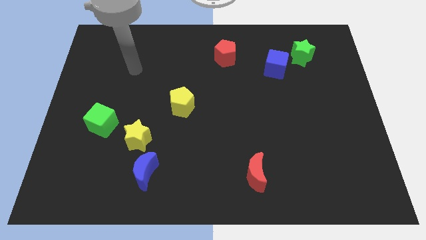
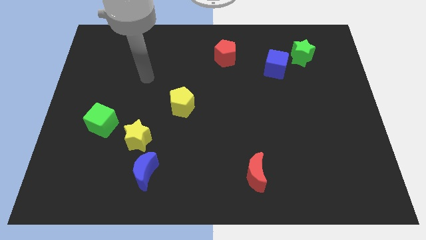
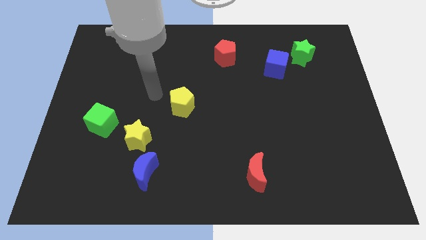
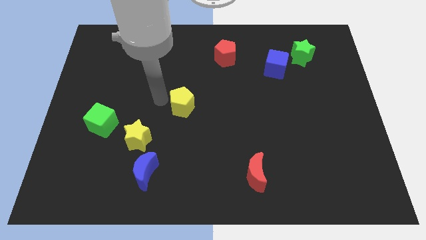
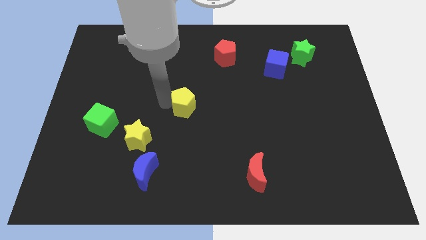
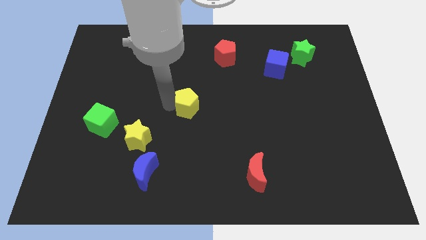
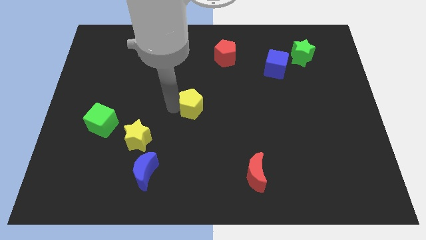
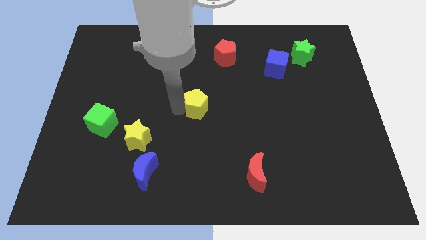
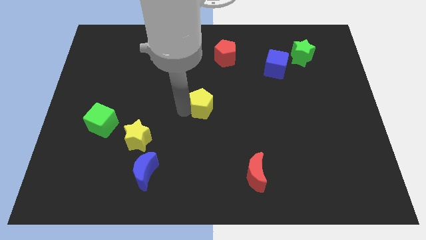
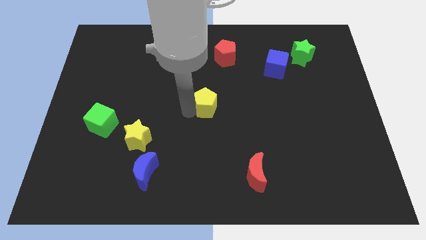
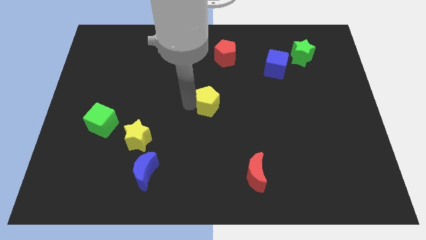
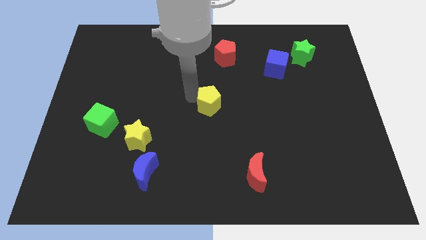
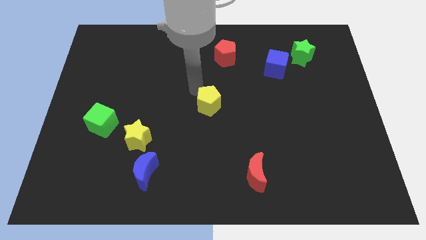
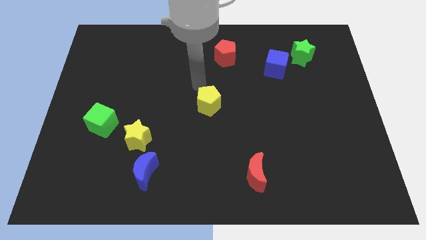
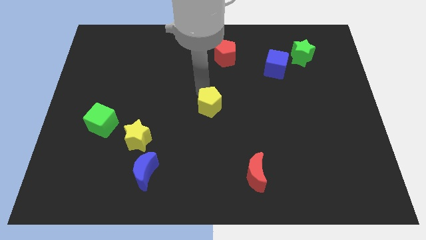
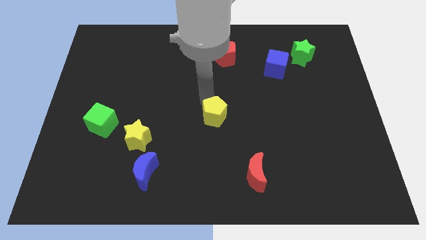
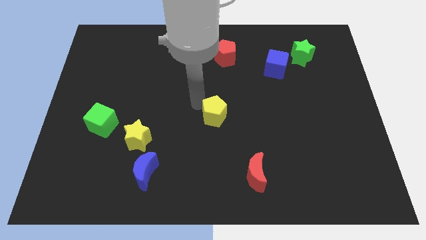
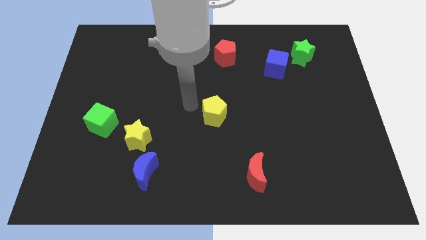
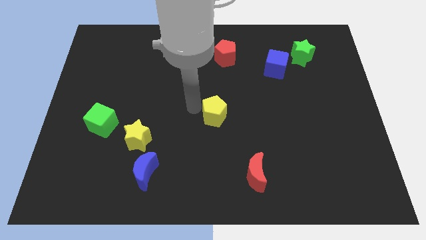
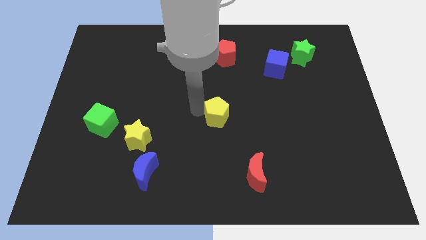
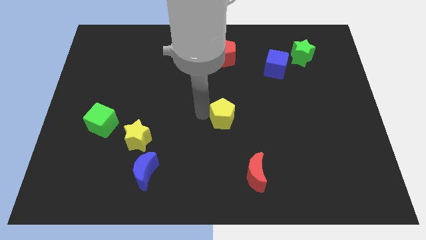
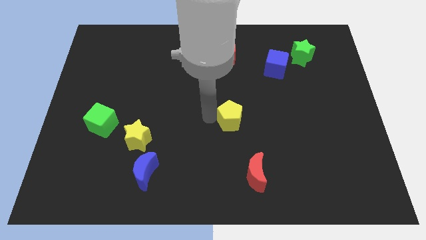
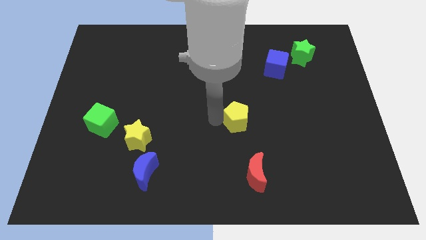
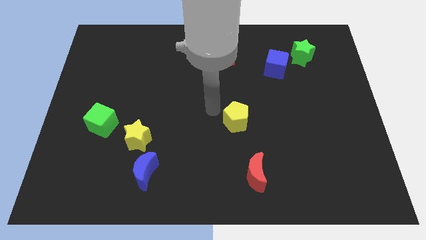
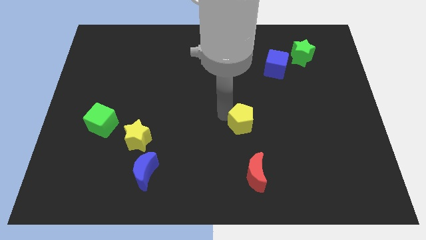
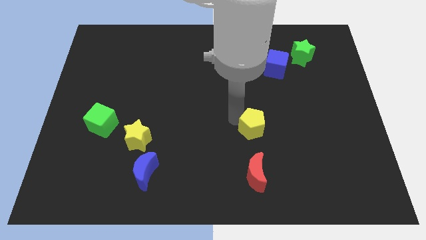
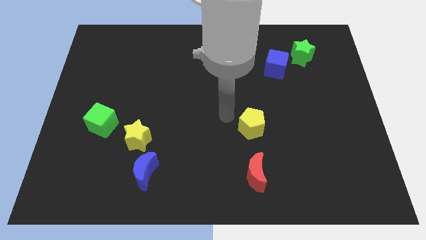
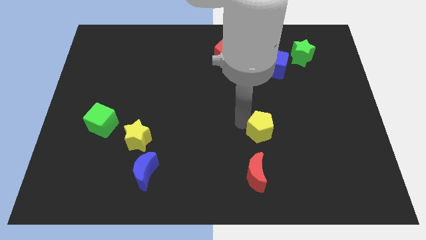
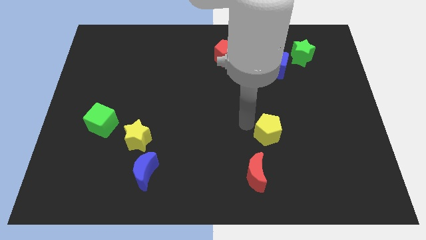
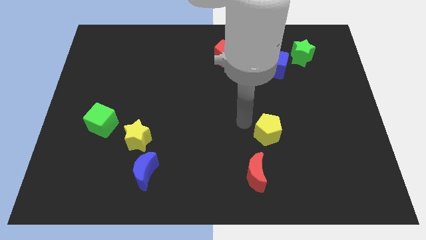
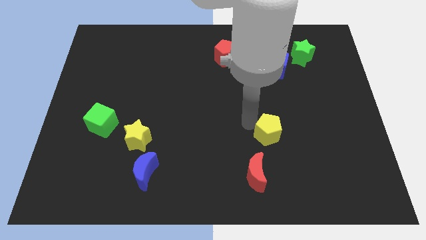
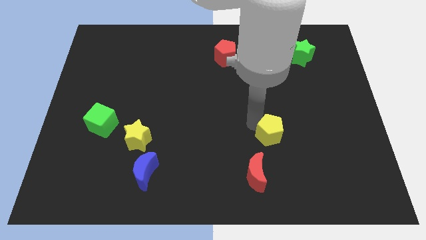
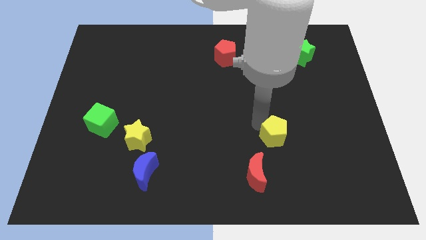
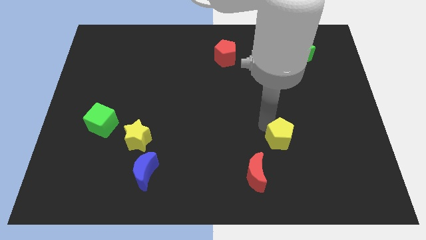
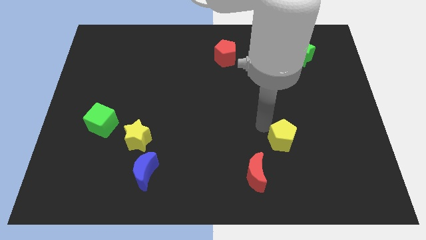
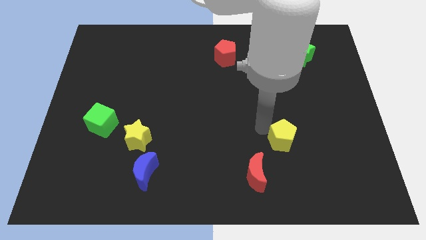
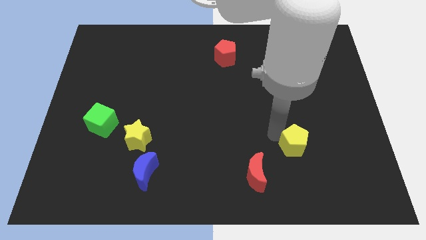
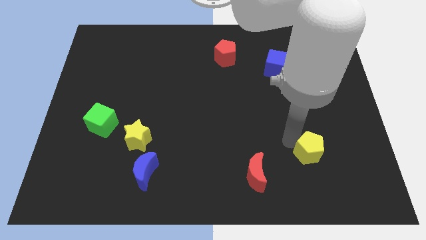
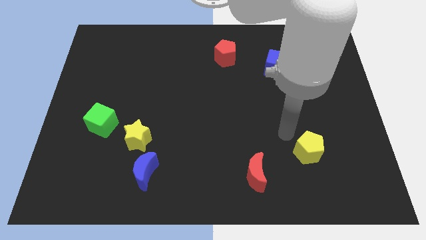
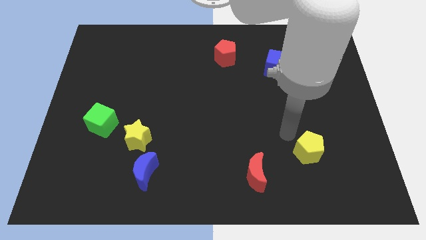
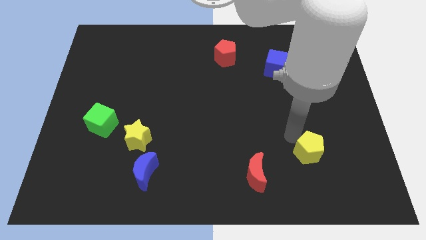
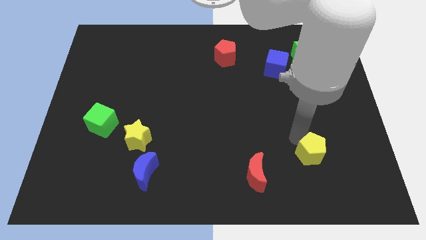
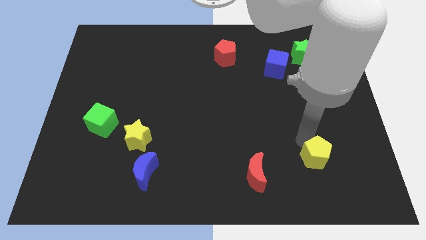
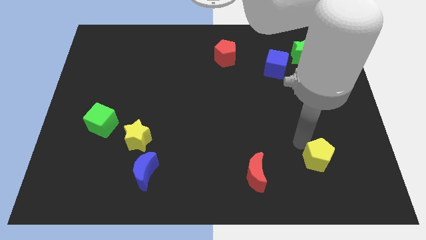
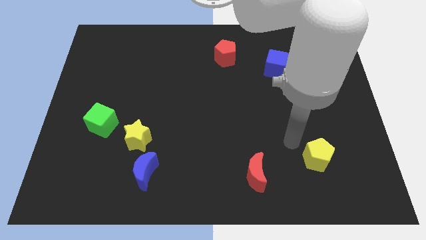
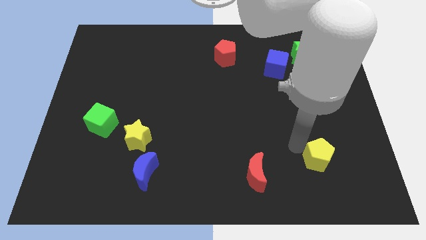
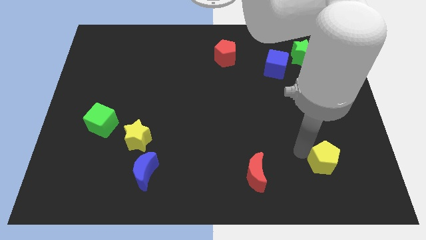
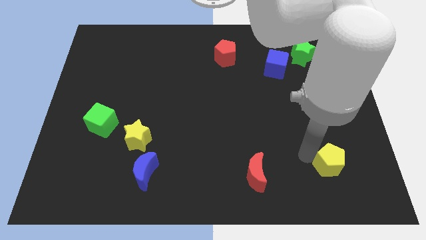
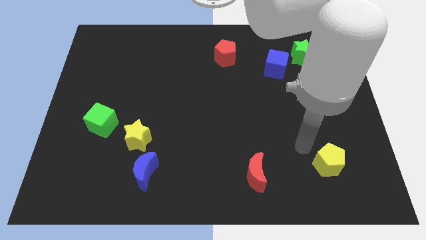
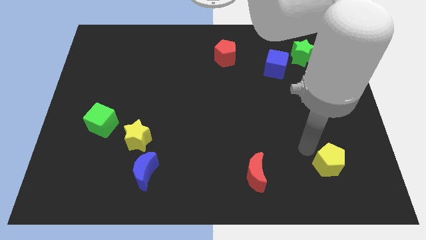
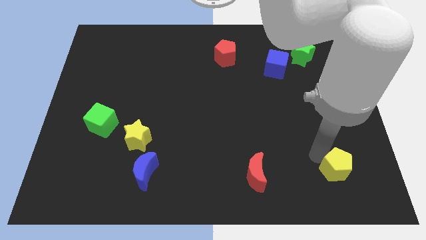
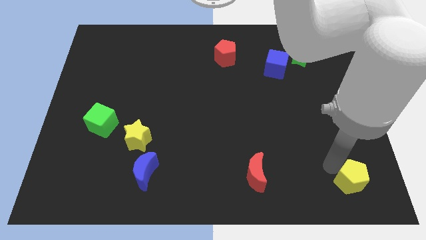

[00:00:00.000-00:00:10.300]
move the yellow pentagon to the bottom right
